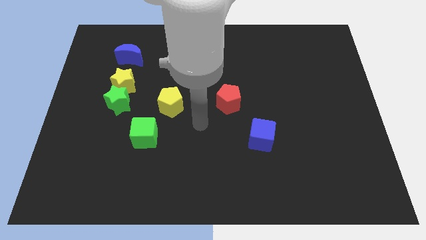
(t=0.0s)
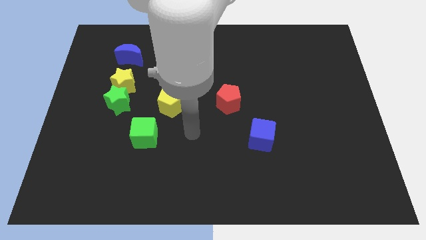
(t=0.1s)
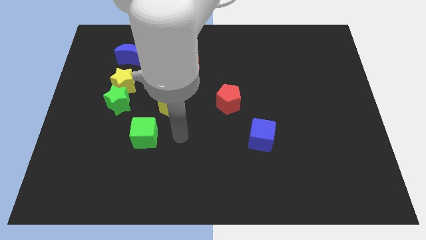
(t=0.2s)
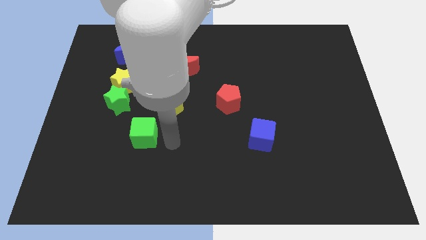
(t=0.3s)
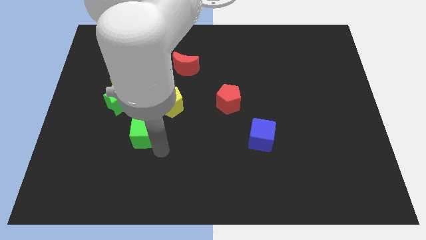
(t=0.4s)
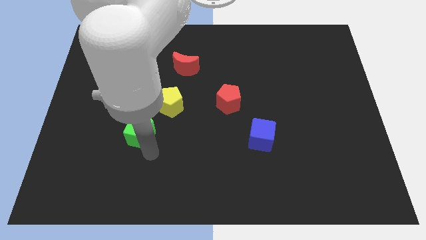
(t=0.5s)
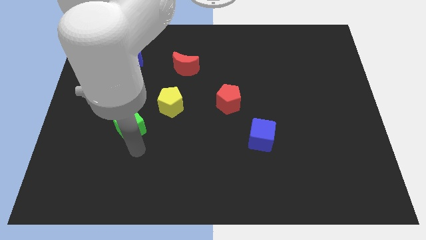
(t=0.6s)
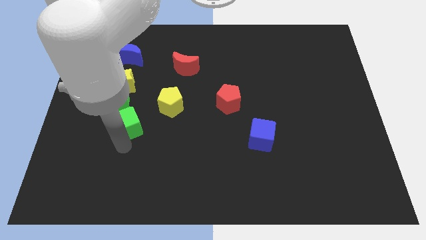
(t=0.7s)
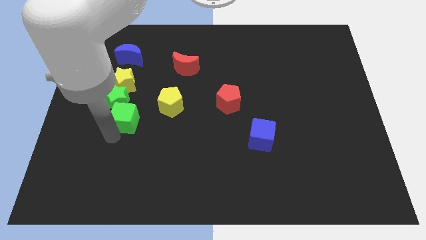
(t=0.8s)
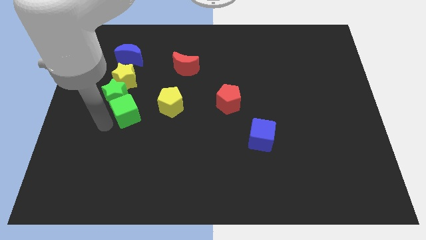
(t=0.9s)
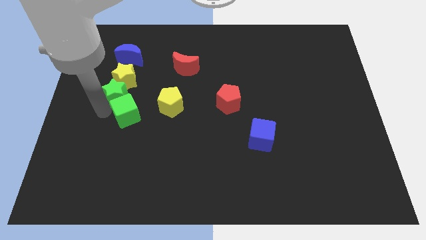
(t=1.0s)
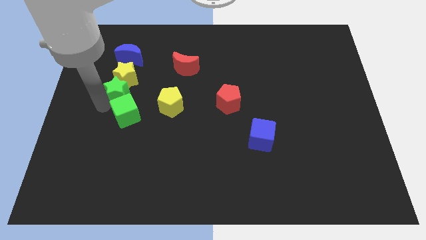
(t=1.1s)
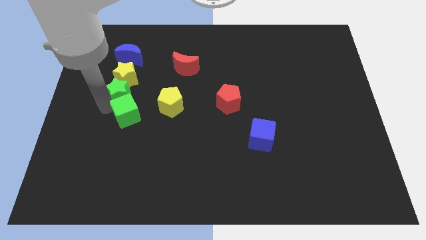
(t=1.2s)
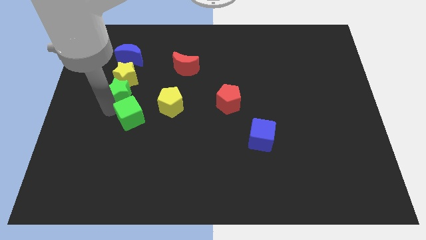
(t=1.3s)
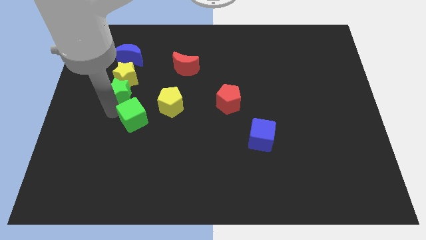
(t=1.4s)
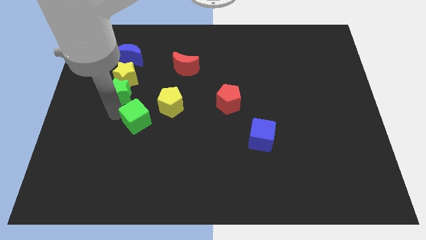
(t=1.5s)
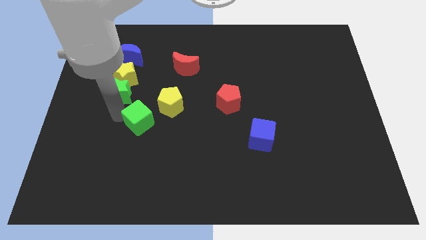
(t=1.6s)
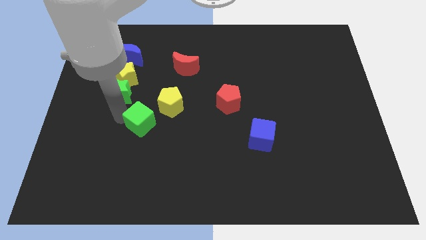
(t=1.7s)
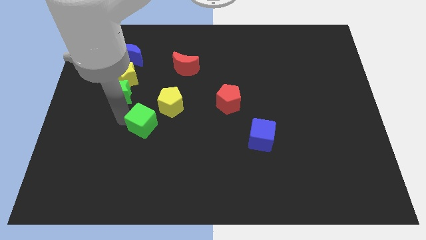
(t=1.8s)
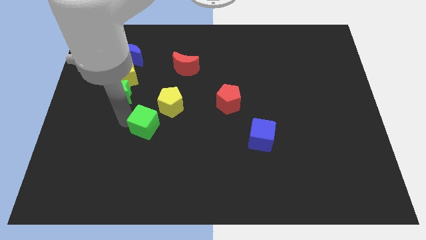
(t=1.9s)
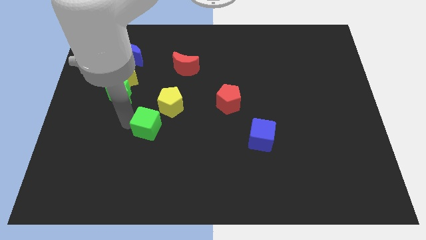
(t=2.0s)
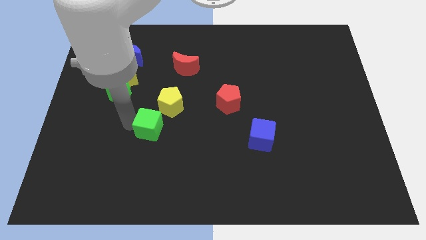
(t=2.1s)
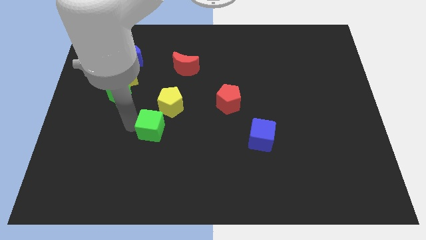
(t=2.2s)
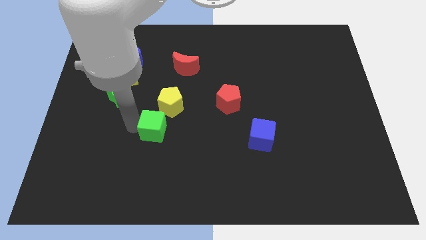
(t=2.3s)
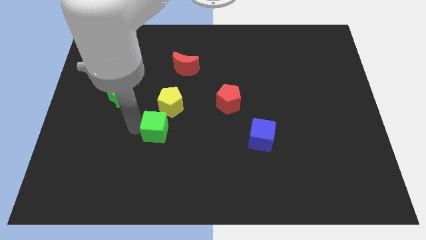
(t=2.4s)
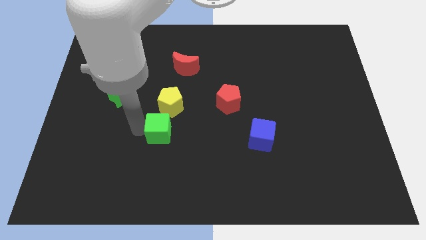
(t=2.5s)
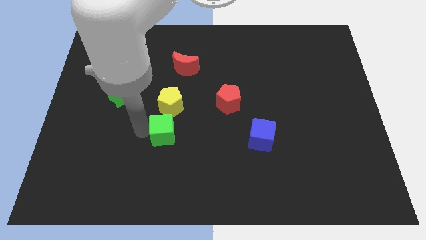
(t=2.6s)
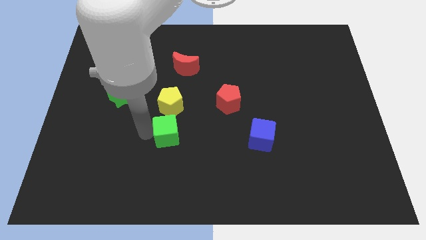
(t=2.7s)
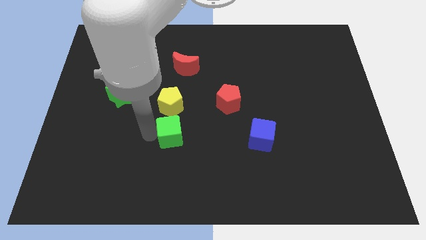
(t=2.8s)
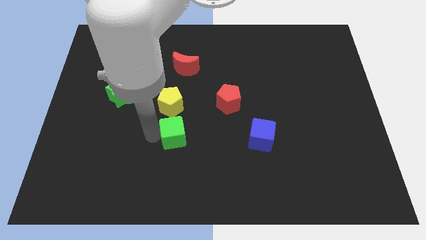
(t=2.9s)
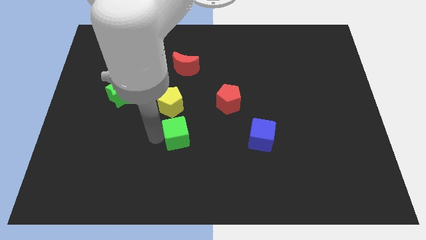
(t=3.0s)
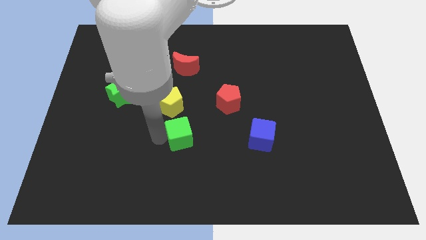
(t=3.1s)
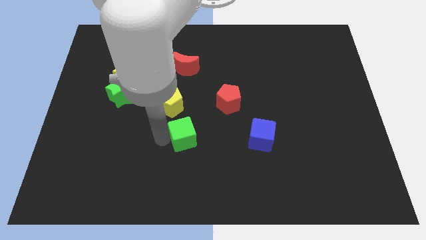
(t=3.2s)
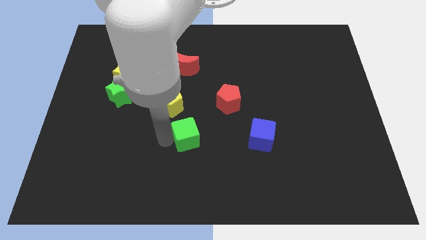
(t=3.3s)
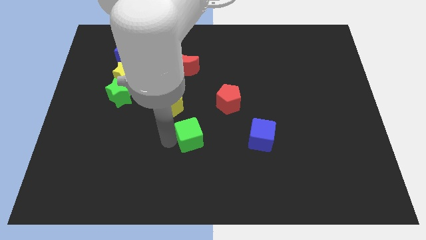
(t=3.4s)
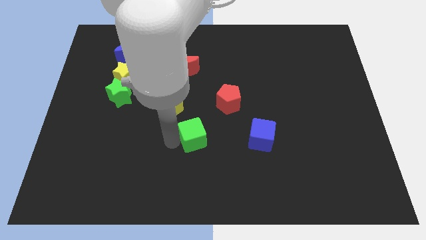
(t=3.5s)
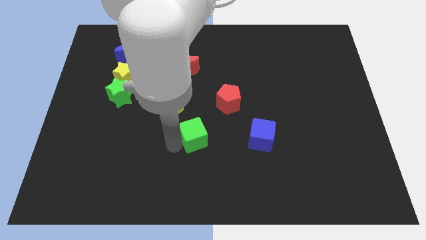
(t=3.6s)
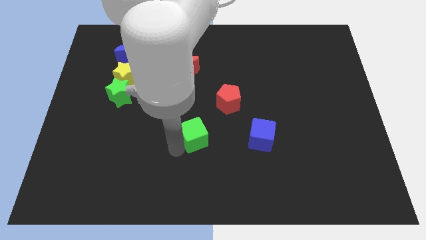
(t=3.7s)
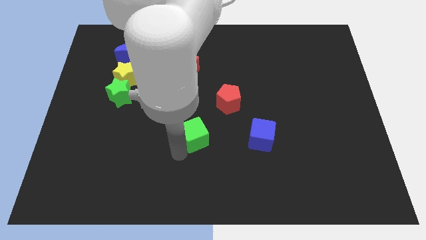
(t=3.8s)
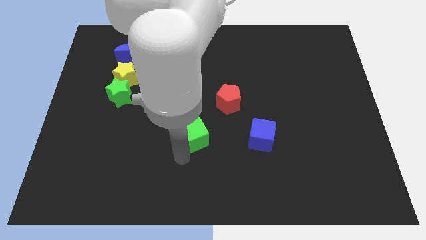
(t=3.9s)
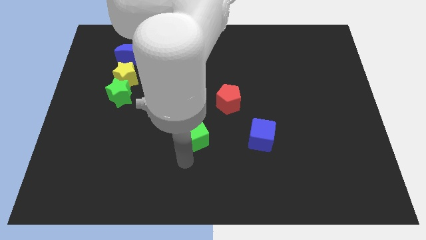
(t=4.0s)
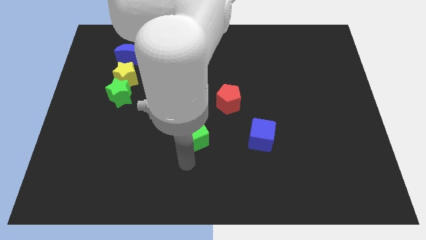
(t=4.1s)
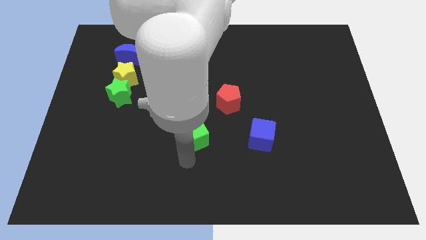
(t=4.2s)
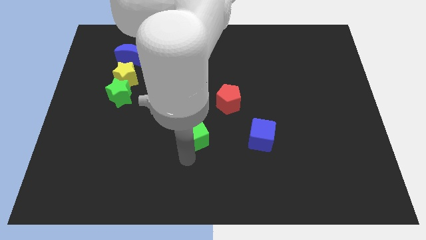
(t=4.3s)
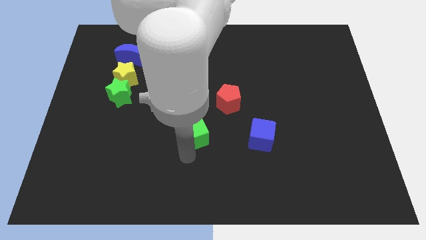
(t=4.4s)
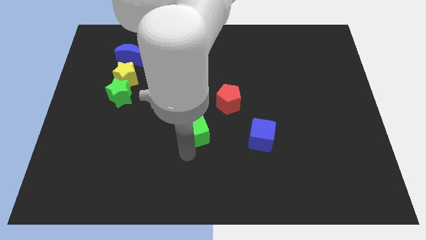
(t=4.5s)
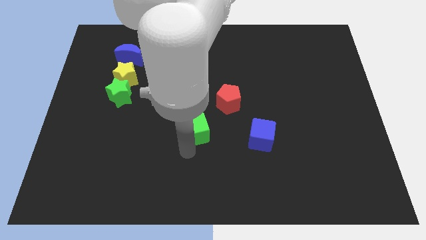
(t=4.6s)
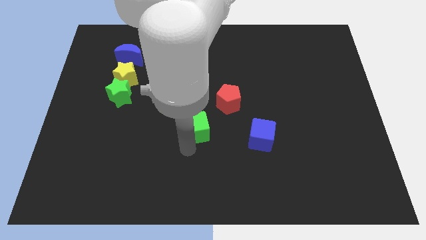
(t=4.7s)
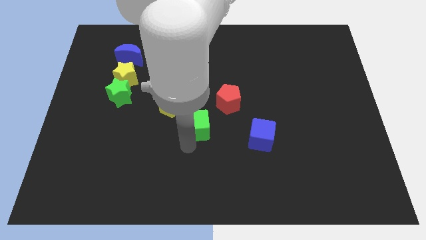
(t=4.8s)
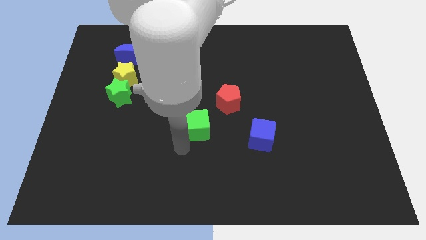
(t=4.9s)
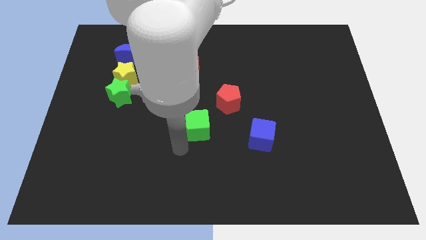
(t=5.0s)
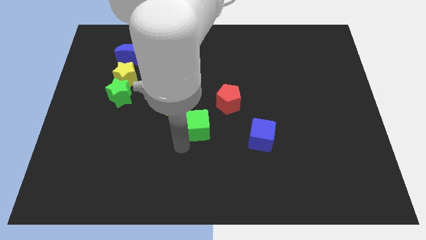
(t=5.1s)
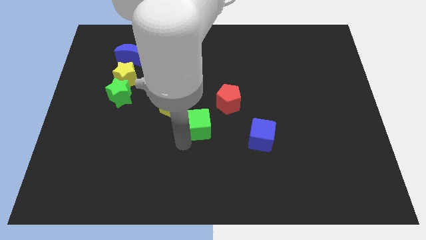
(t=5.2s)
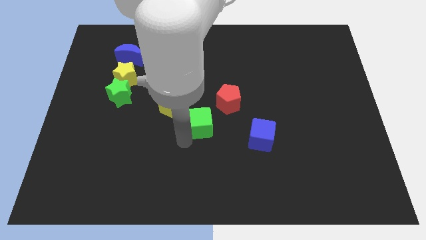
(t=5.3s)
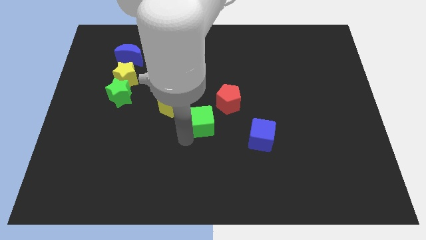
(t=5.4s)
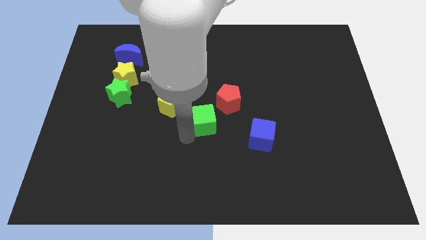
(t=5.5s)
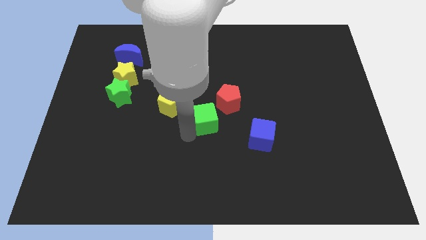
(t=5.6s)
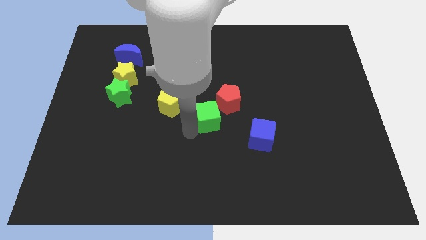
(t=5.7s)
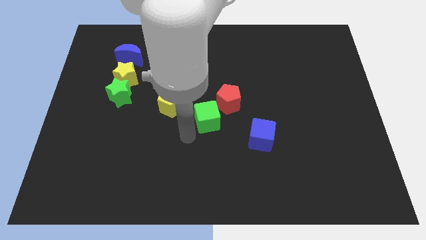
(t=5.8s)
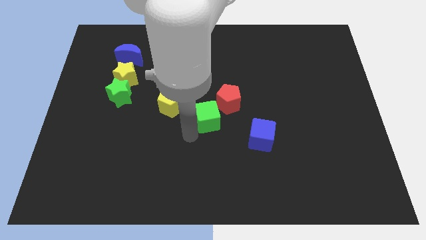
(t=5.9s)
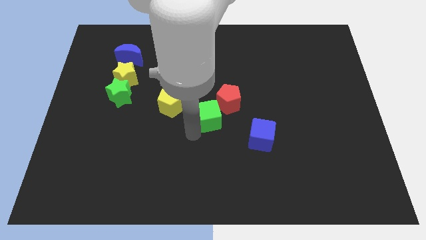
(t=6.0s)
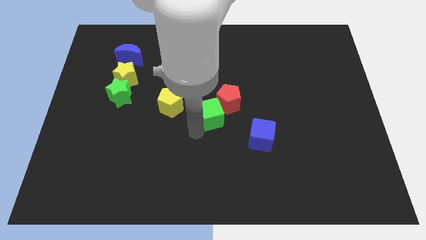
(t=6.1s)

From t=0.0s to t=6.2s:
put the green cube next to the red pentagon

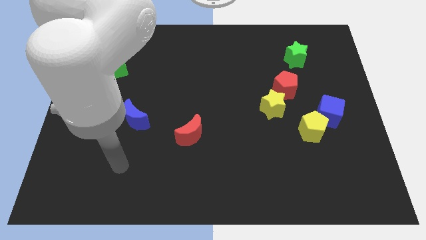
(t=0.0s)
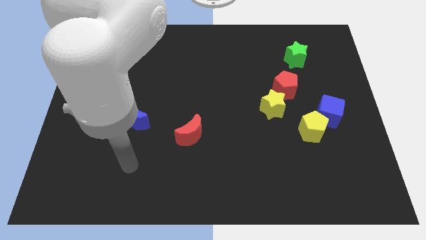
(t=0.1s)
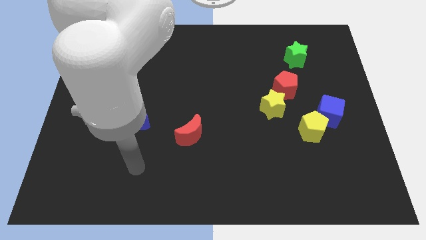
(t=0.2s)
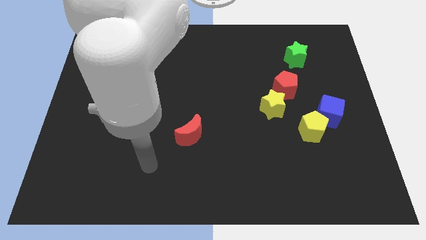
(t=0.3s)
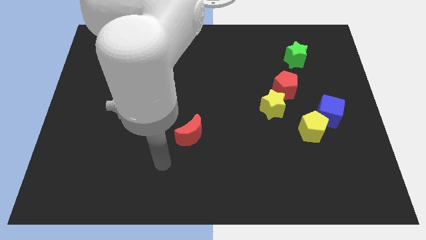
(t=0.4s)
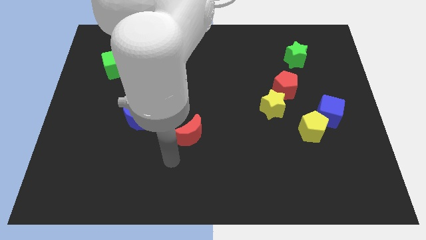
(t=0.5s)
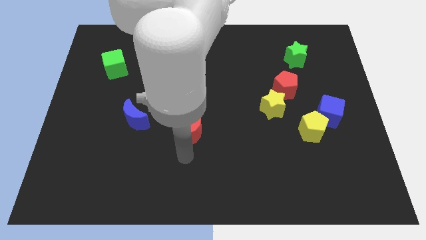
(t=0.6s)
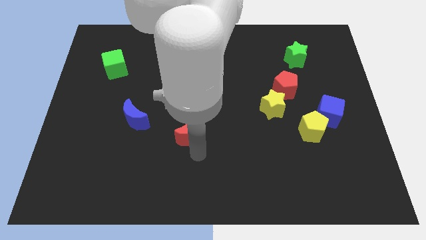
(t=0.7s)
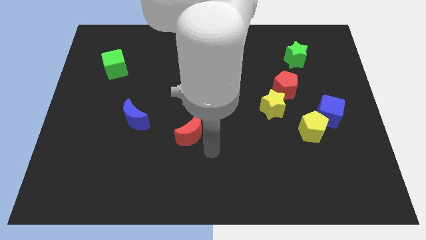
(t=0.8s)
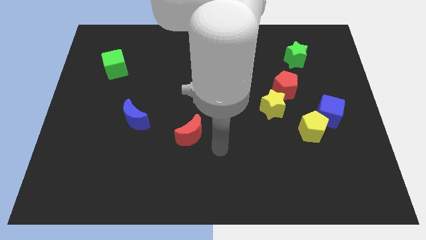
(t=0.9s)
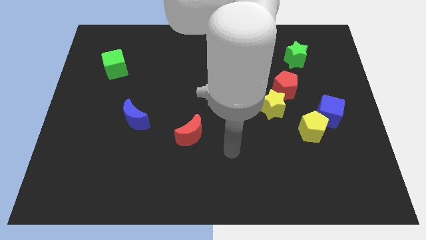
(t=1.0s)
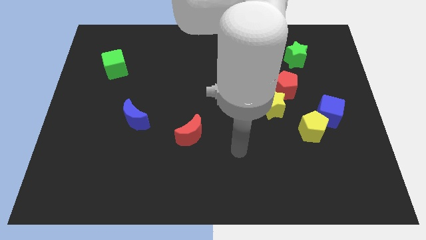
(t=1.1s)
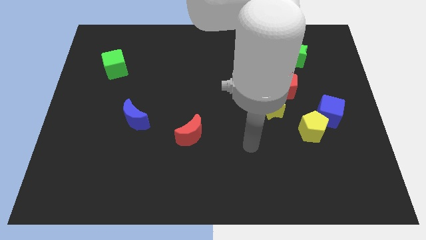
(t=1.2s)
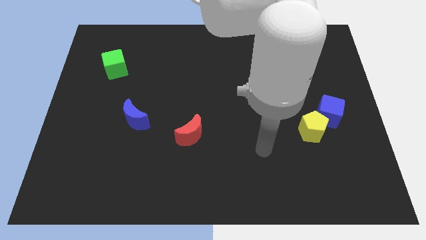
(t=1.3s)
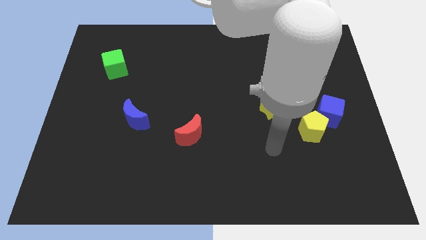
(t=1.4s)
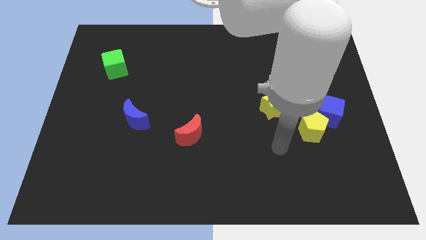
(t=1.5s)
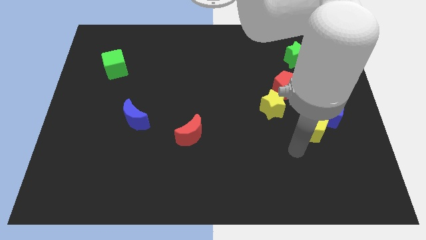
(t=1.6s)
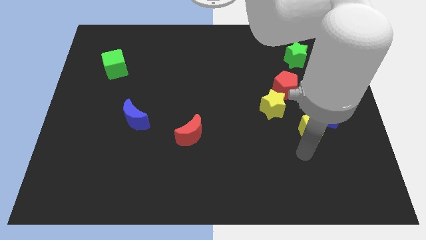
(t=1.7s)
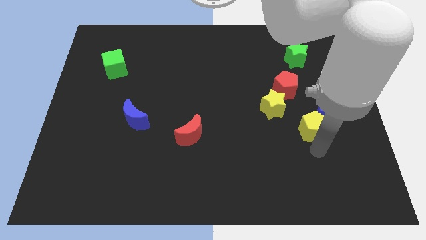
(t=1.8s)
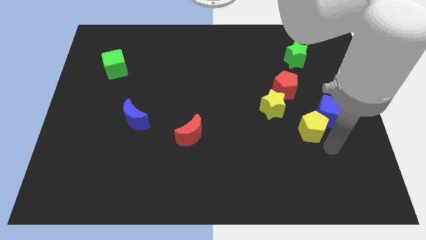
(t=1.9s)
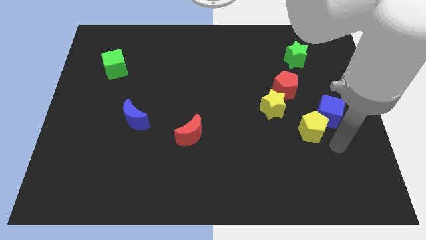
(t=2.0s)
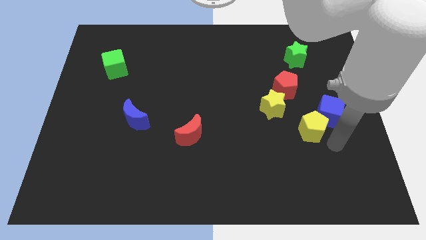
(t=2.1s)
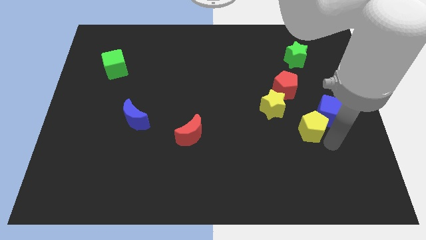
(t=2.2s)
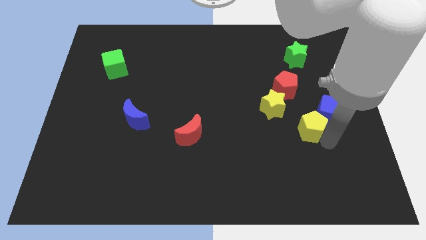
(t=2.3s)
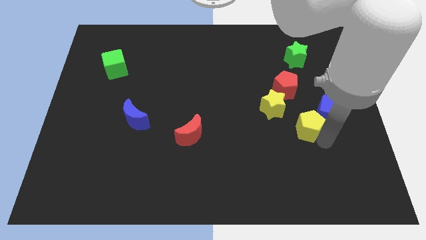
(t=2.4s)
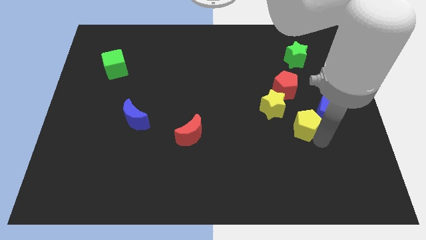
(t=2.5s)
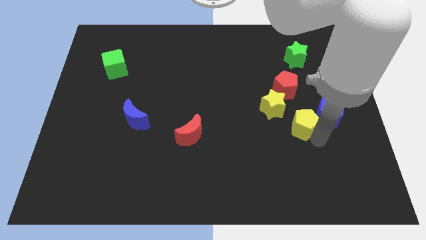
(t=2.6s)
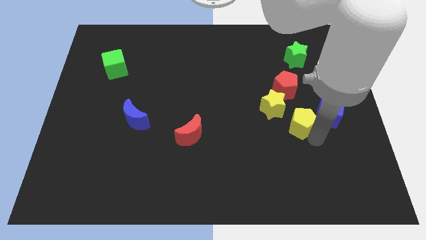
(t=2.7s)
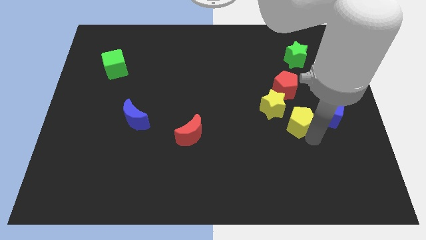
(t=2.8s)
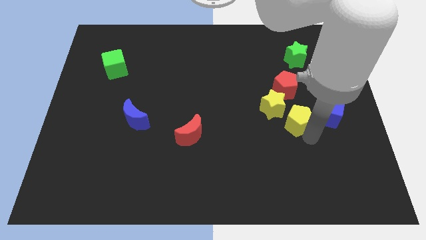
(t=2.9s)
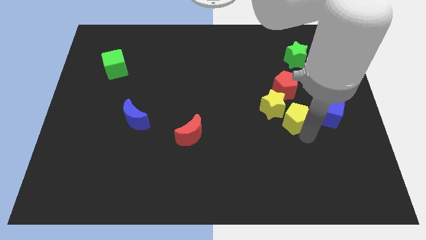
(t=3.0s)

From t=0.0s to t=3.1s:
push the yellow pentagon close to the yellow star
